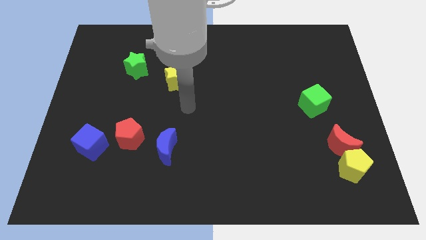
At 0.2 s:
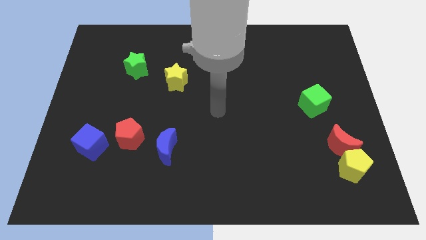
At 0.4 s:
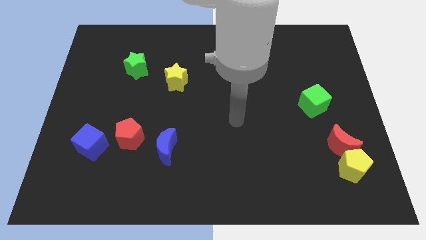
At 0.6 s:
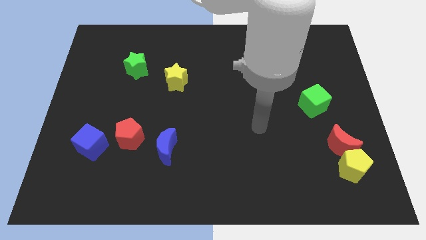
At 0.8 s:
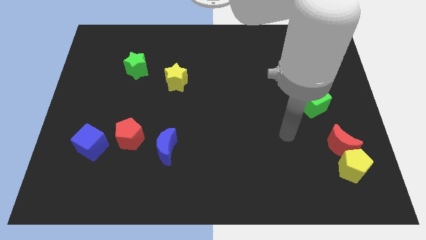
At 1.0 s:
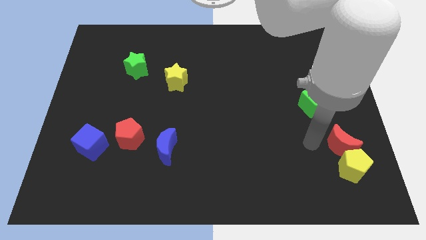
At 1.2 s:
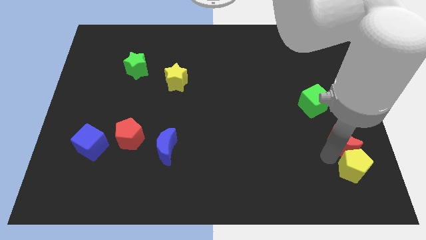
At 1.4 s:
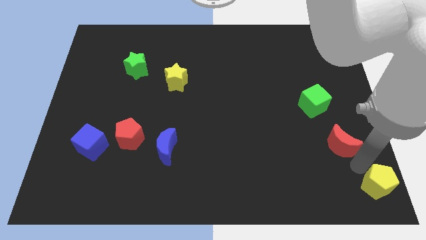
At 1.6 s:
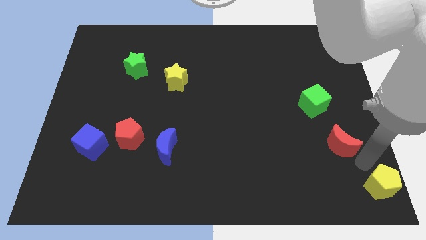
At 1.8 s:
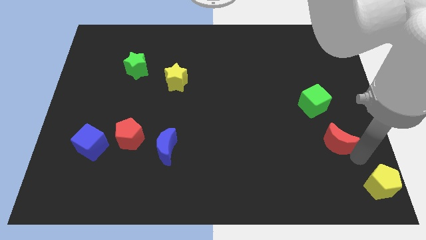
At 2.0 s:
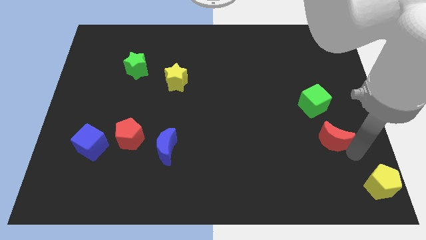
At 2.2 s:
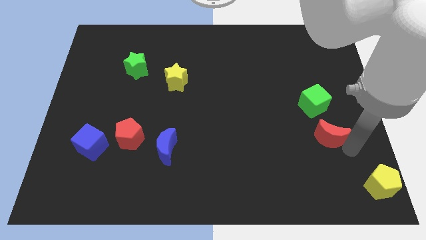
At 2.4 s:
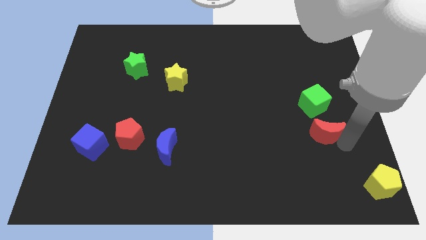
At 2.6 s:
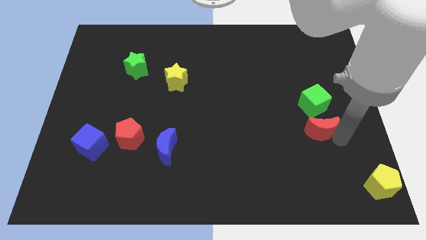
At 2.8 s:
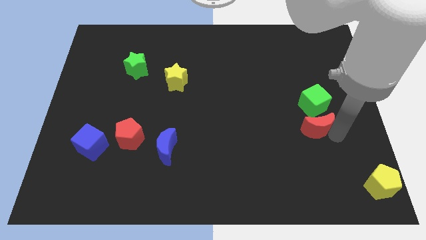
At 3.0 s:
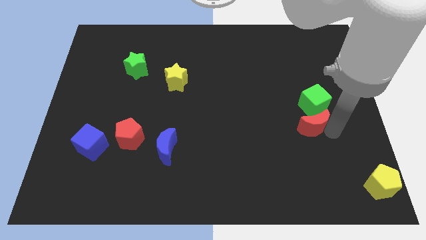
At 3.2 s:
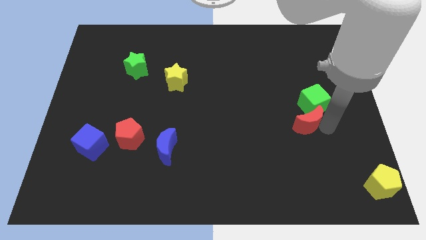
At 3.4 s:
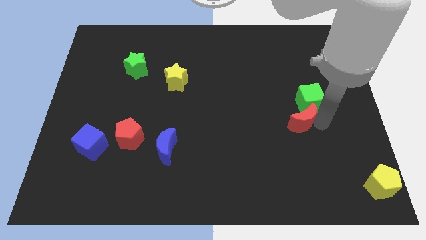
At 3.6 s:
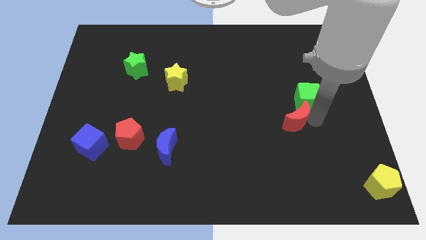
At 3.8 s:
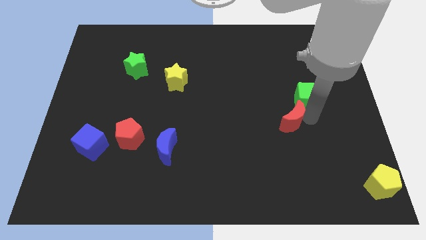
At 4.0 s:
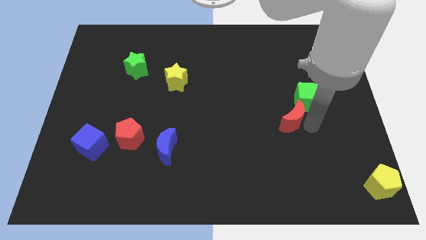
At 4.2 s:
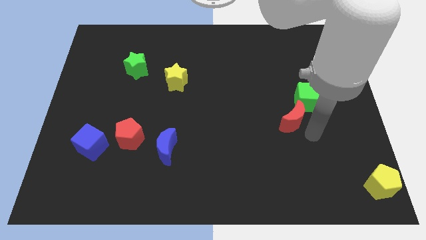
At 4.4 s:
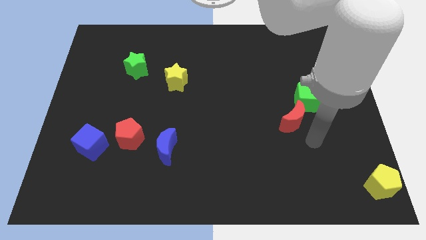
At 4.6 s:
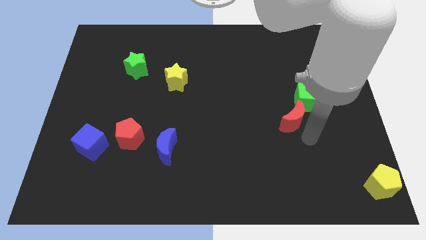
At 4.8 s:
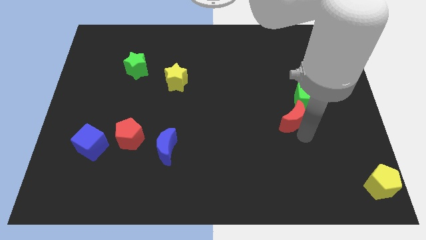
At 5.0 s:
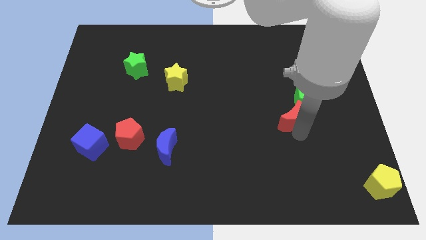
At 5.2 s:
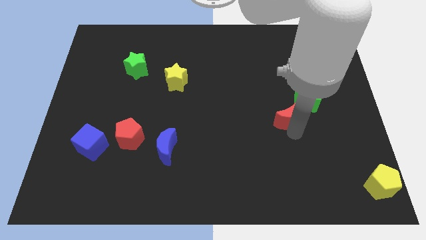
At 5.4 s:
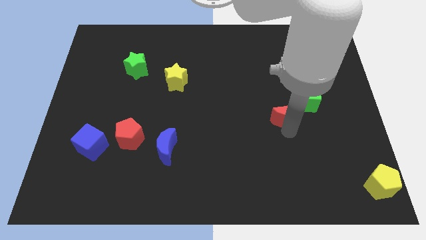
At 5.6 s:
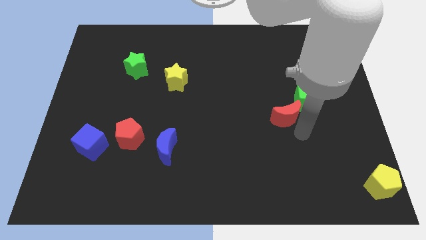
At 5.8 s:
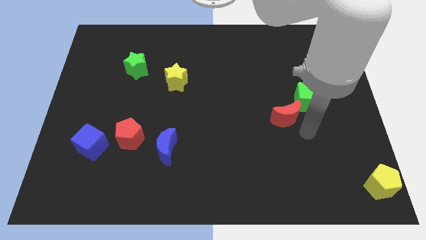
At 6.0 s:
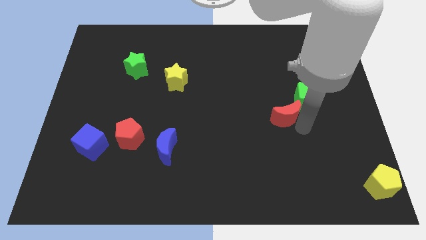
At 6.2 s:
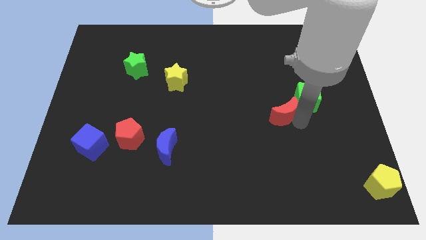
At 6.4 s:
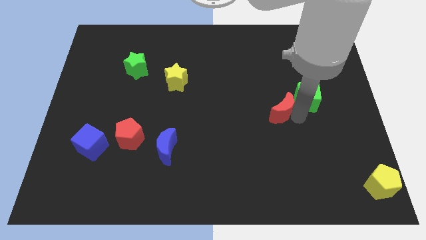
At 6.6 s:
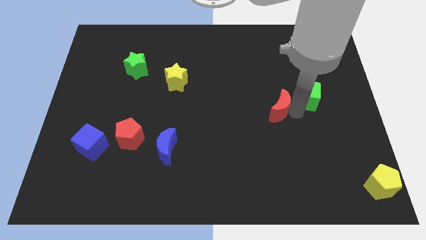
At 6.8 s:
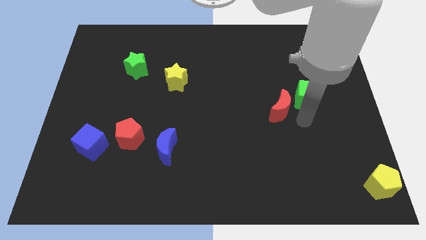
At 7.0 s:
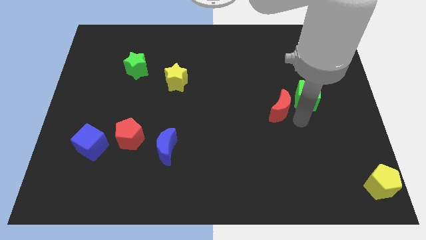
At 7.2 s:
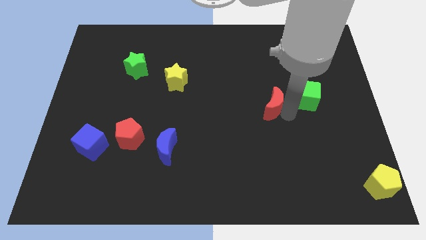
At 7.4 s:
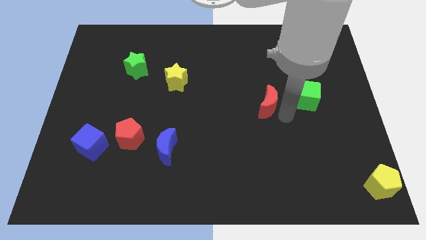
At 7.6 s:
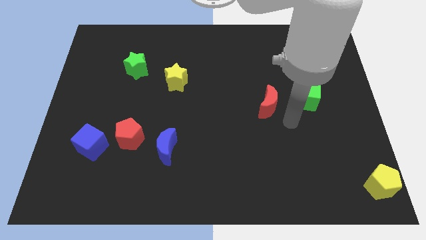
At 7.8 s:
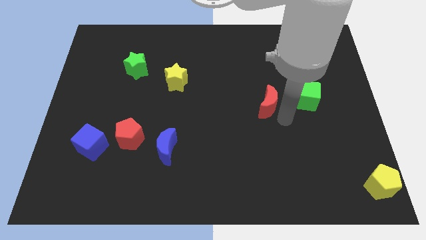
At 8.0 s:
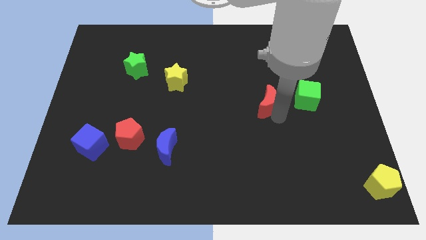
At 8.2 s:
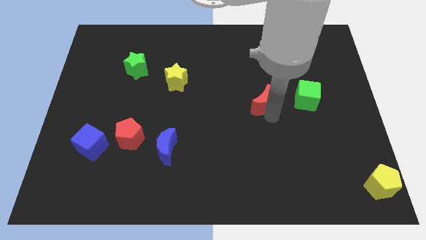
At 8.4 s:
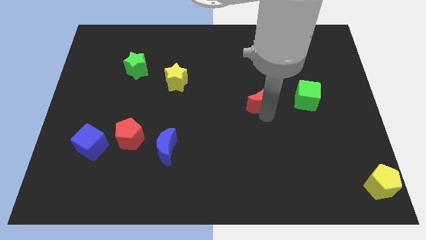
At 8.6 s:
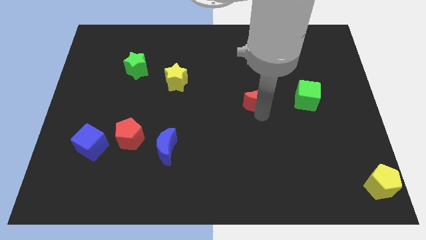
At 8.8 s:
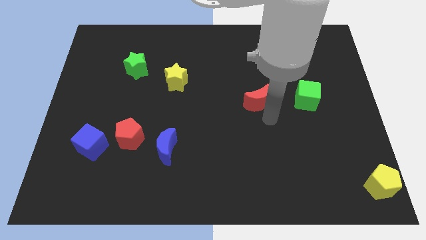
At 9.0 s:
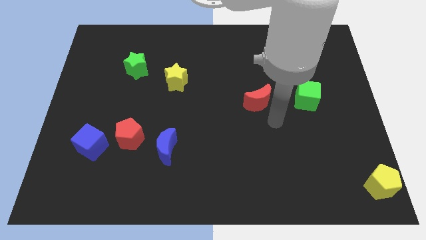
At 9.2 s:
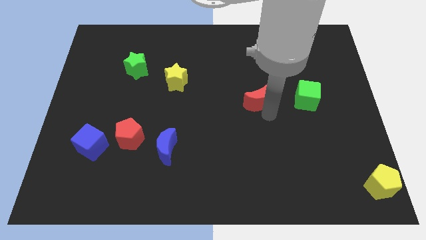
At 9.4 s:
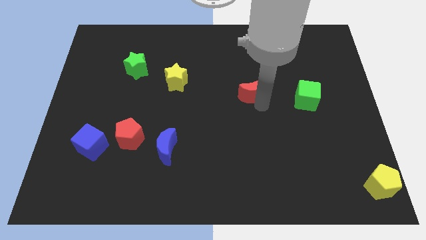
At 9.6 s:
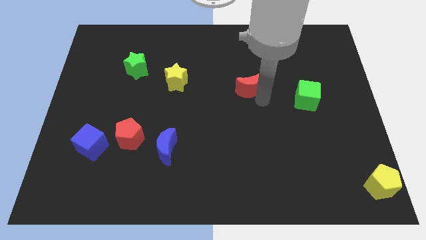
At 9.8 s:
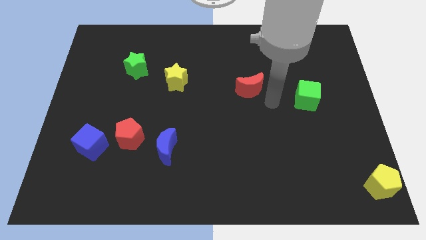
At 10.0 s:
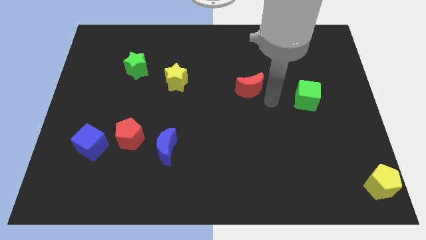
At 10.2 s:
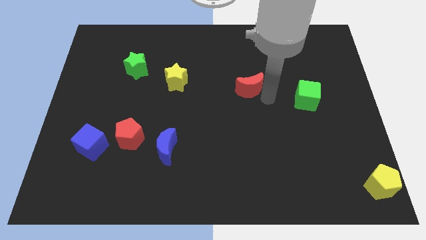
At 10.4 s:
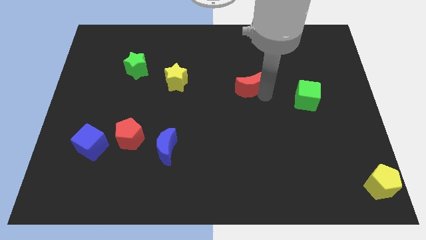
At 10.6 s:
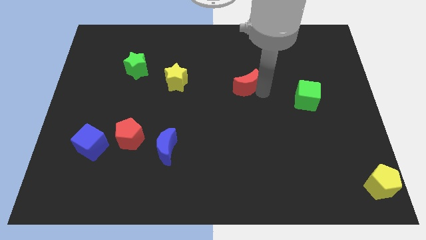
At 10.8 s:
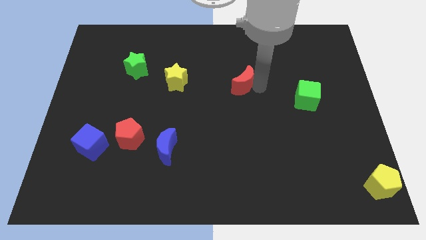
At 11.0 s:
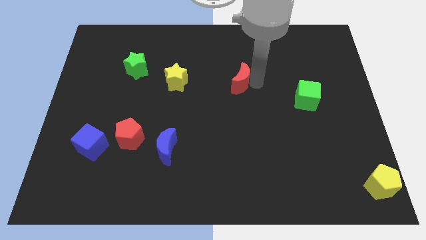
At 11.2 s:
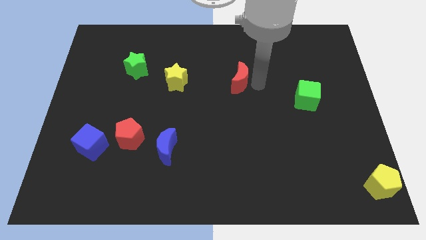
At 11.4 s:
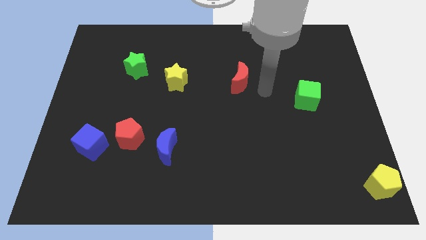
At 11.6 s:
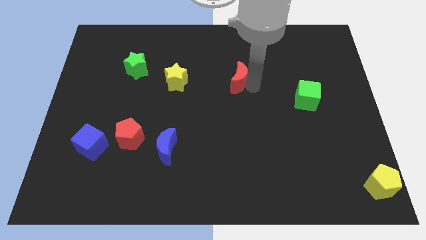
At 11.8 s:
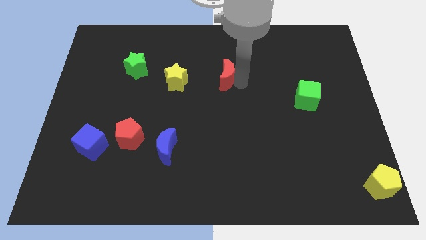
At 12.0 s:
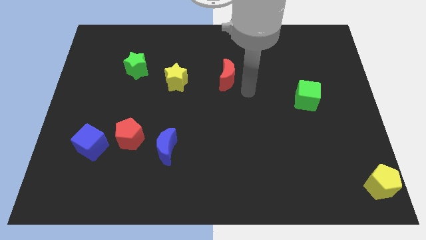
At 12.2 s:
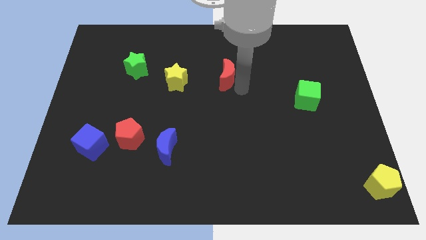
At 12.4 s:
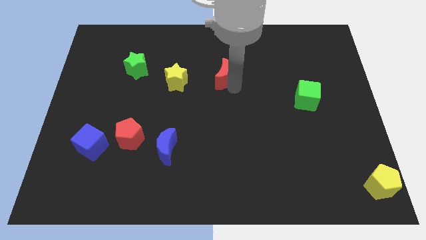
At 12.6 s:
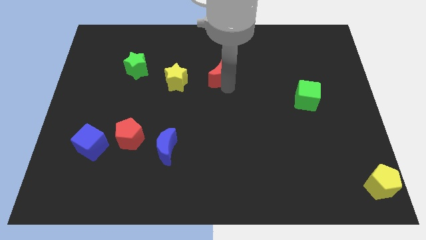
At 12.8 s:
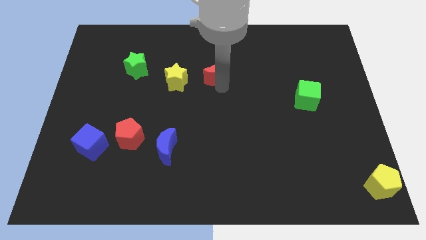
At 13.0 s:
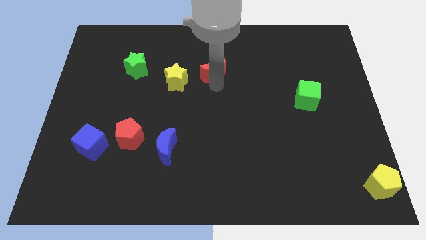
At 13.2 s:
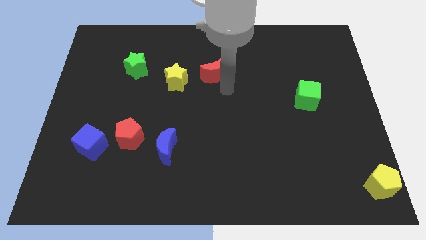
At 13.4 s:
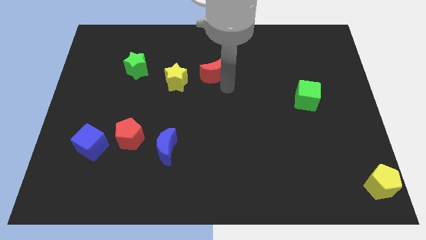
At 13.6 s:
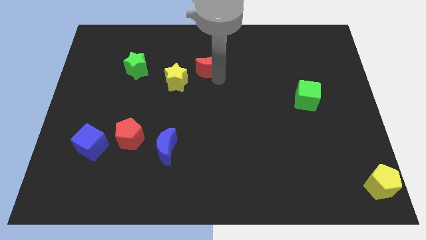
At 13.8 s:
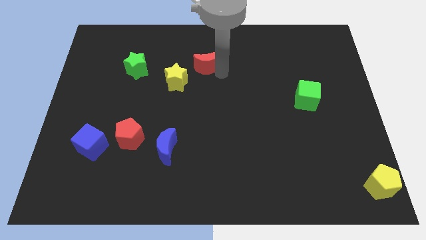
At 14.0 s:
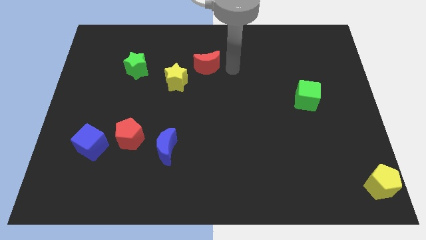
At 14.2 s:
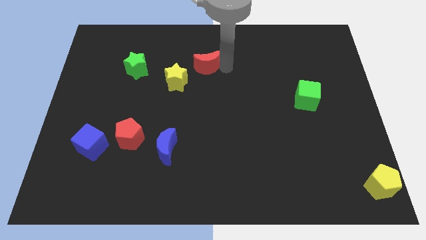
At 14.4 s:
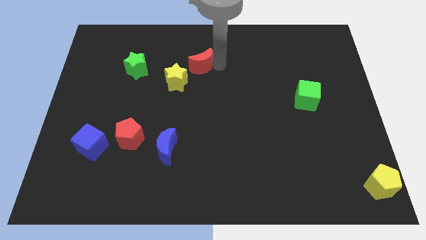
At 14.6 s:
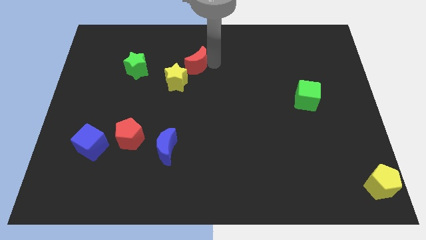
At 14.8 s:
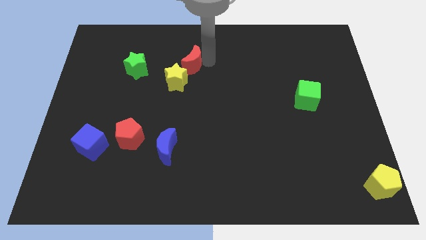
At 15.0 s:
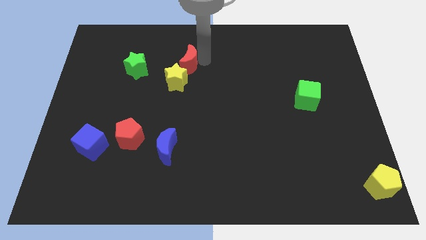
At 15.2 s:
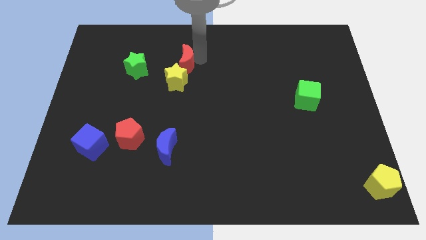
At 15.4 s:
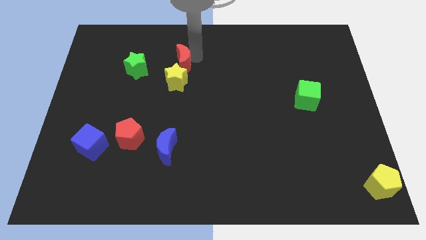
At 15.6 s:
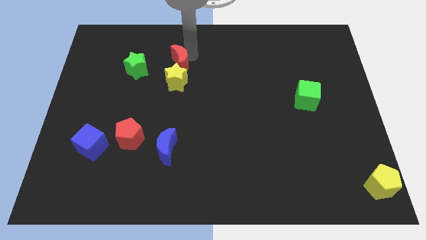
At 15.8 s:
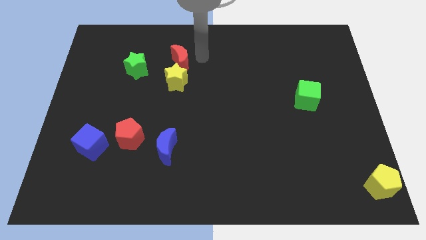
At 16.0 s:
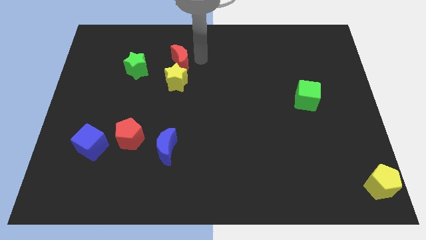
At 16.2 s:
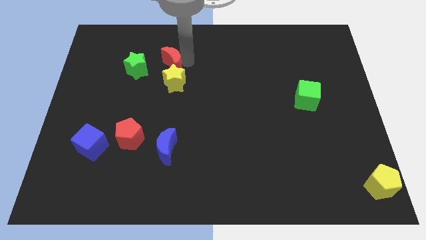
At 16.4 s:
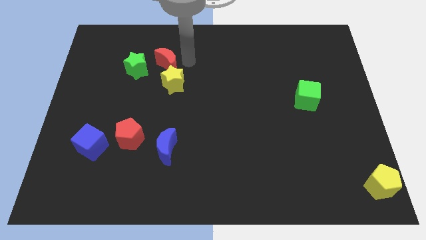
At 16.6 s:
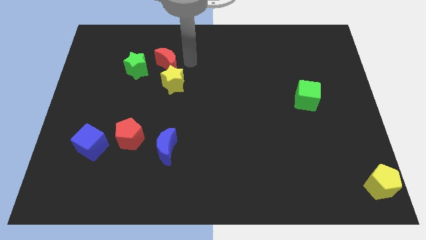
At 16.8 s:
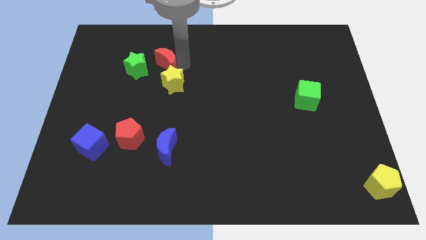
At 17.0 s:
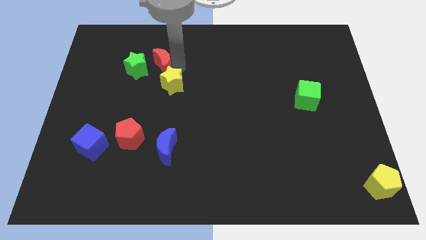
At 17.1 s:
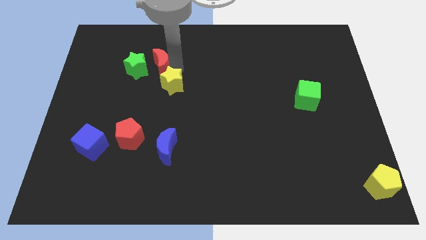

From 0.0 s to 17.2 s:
push the red moon close to the green star
